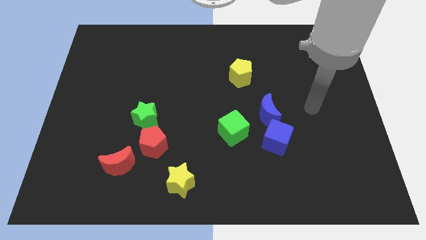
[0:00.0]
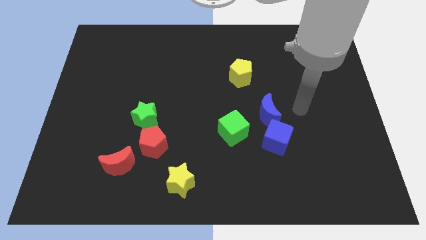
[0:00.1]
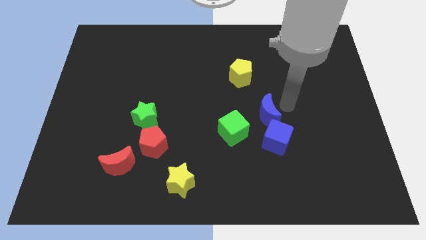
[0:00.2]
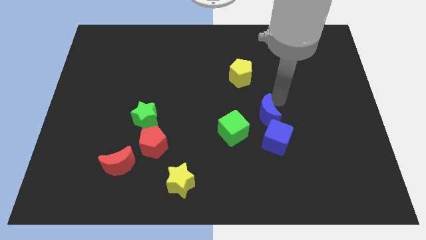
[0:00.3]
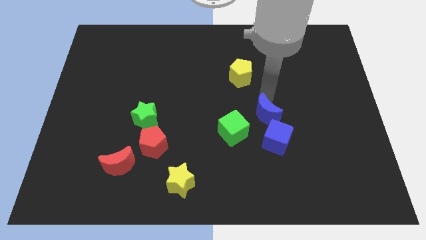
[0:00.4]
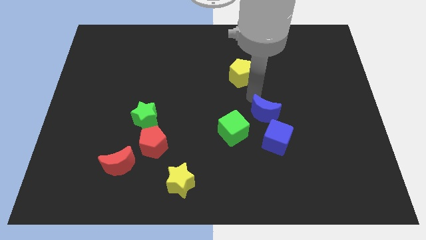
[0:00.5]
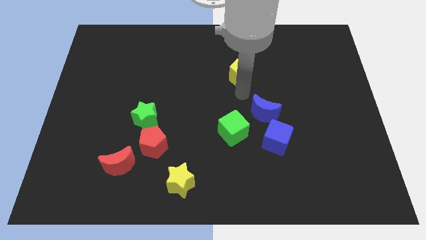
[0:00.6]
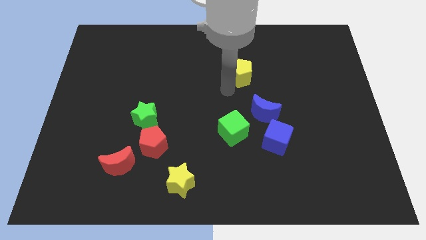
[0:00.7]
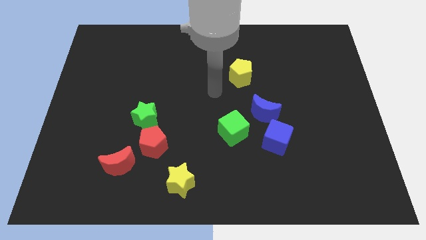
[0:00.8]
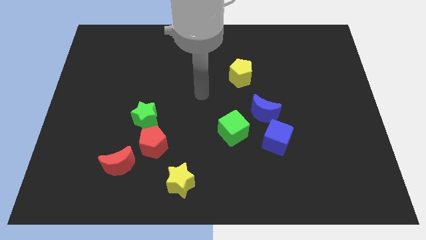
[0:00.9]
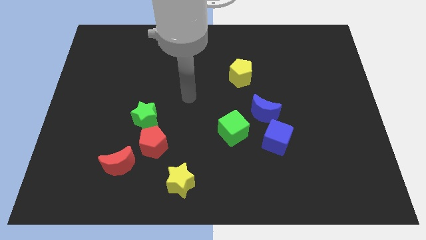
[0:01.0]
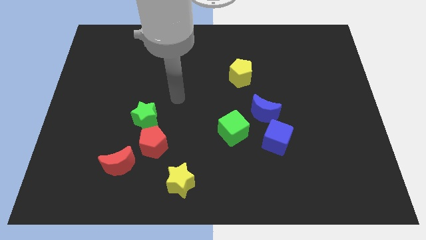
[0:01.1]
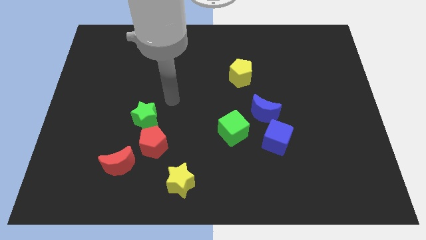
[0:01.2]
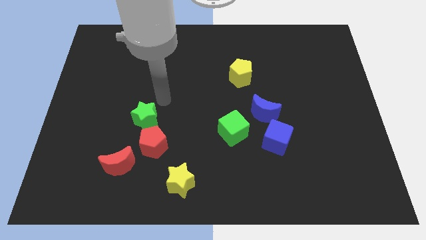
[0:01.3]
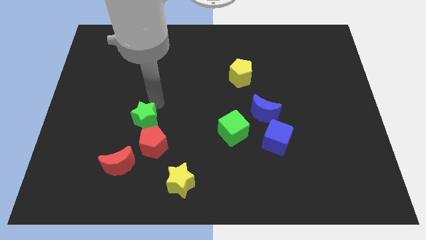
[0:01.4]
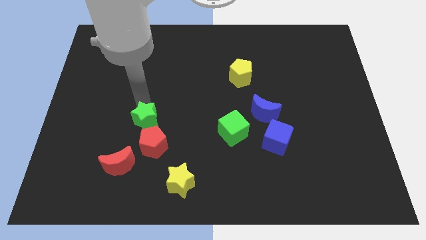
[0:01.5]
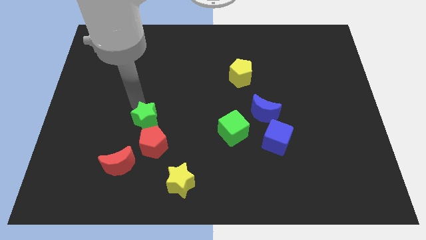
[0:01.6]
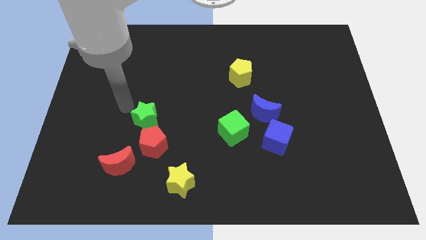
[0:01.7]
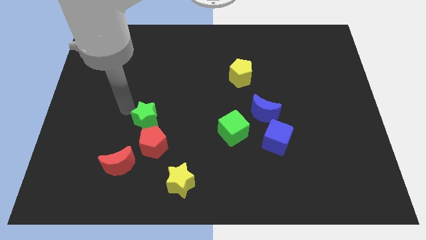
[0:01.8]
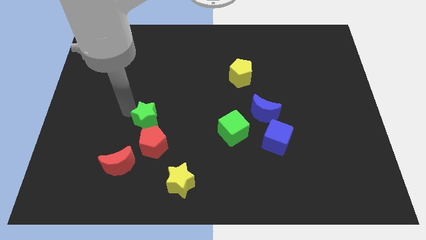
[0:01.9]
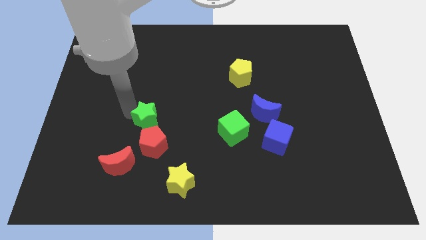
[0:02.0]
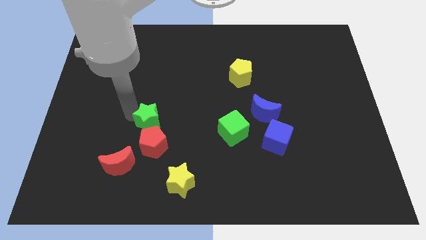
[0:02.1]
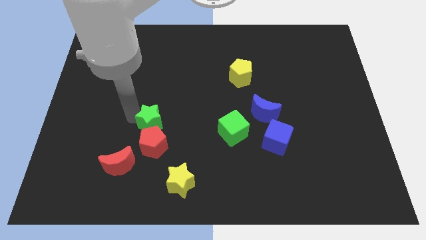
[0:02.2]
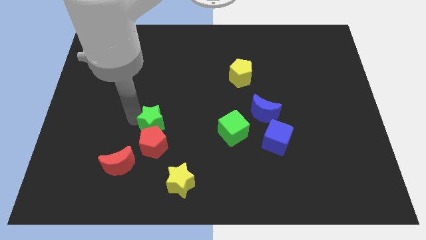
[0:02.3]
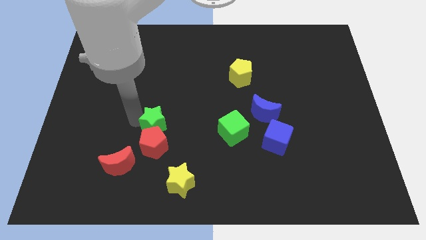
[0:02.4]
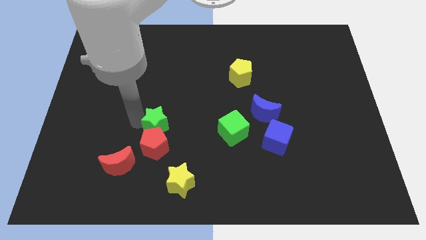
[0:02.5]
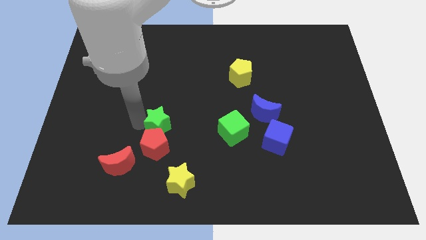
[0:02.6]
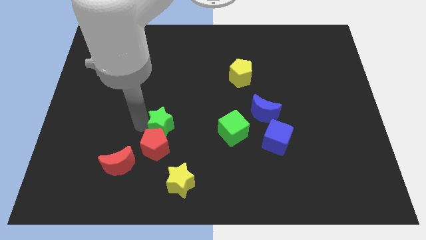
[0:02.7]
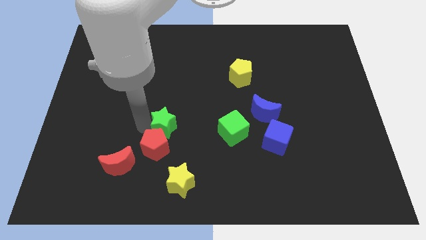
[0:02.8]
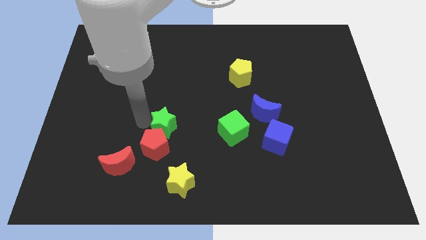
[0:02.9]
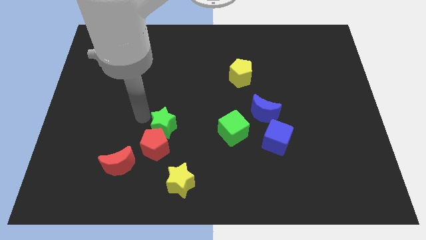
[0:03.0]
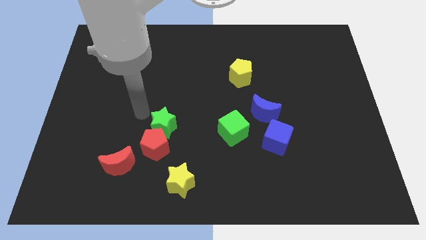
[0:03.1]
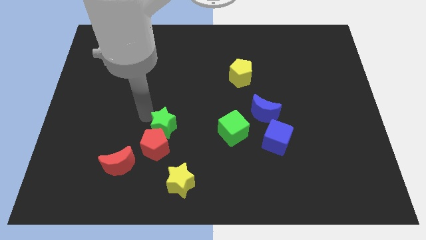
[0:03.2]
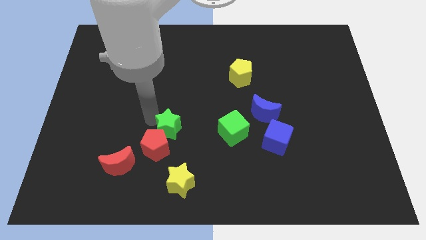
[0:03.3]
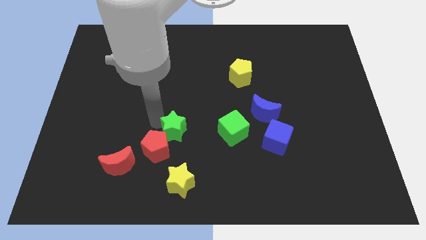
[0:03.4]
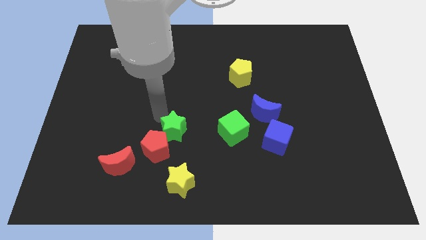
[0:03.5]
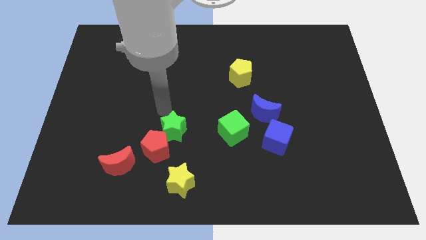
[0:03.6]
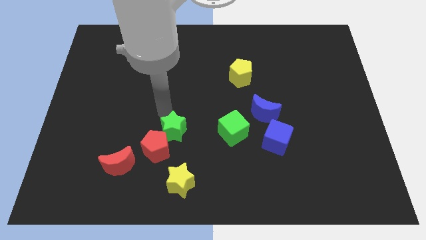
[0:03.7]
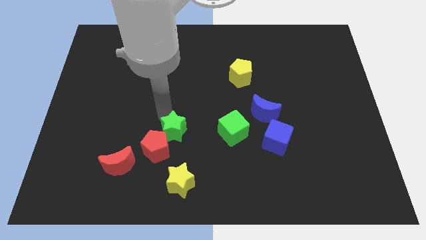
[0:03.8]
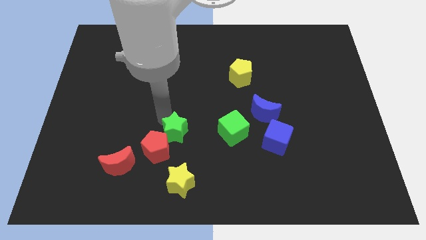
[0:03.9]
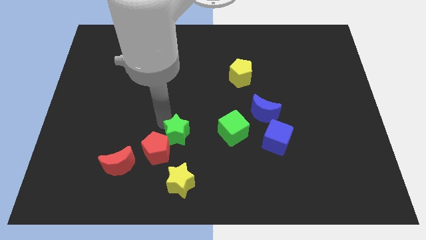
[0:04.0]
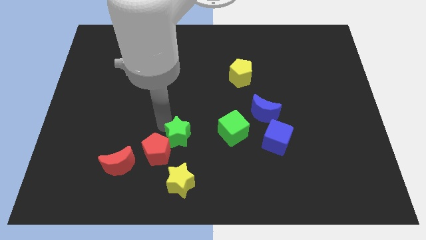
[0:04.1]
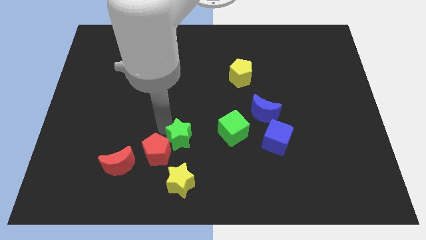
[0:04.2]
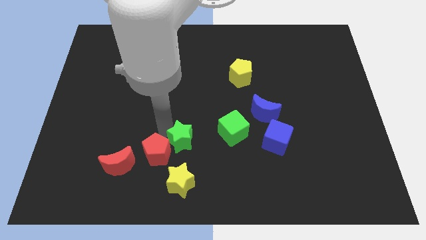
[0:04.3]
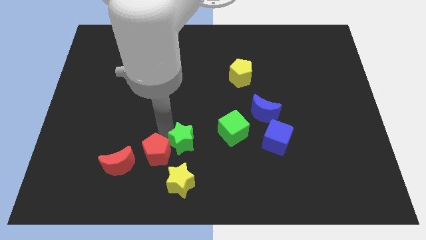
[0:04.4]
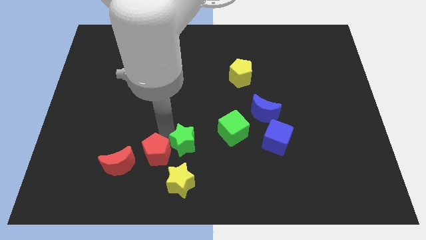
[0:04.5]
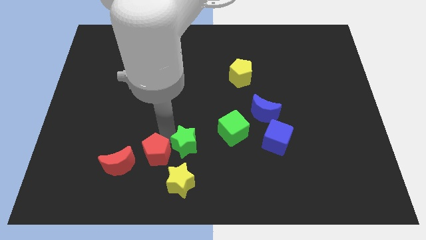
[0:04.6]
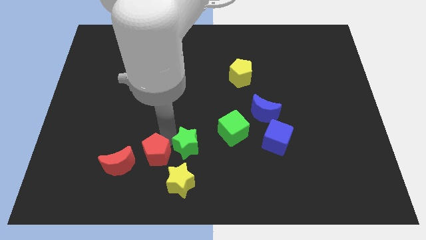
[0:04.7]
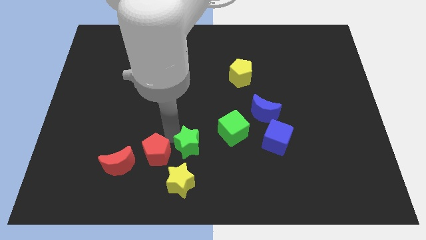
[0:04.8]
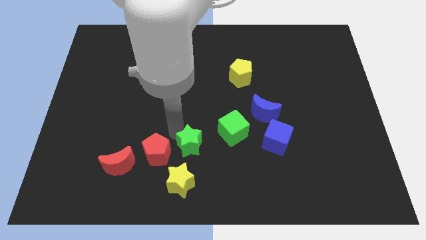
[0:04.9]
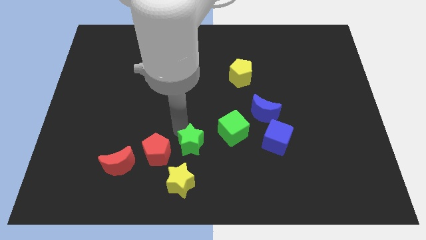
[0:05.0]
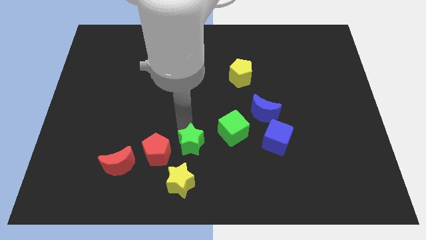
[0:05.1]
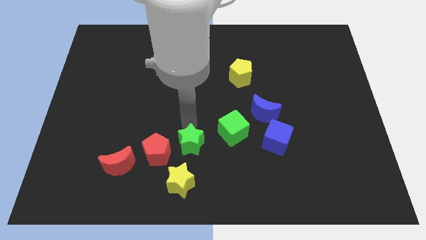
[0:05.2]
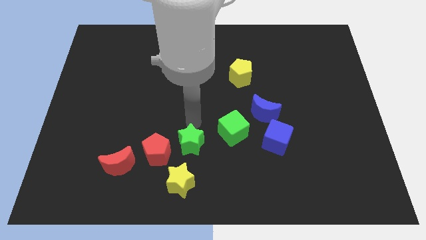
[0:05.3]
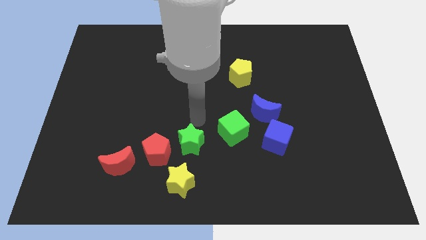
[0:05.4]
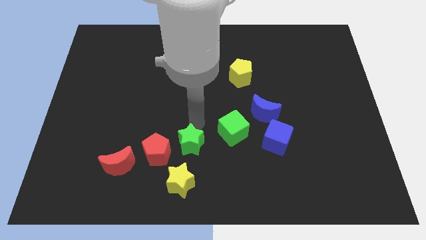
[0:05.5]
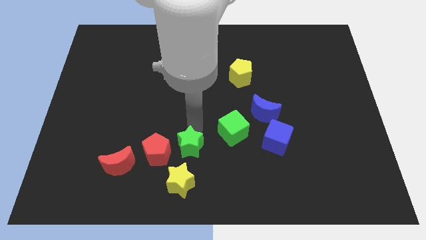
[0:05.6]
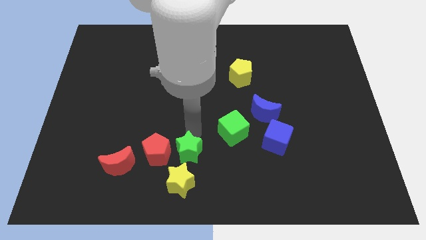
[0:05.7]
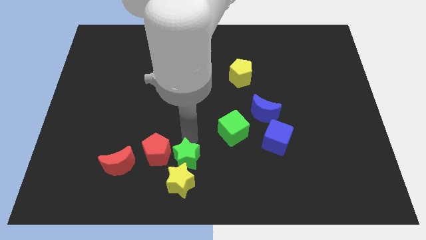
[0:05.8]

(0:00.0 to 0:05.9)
move the green star to the bottom

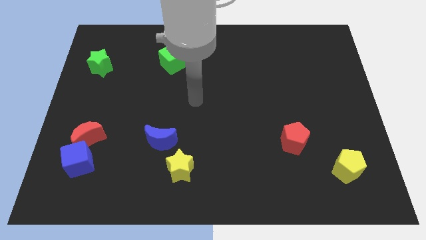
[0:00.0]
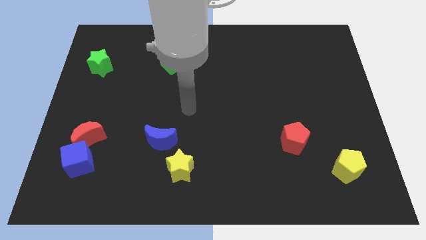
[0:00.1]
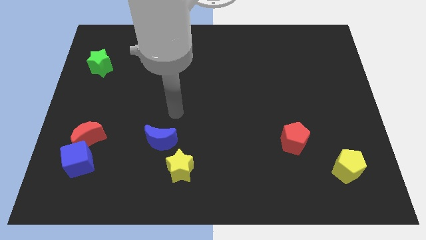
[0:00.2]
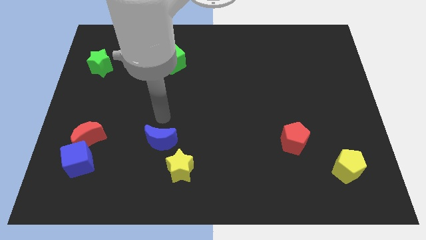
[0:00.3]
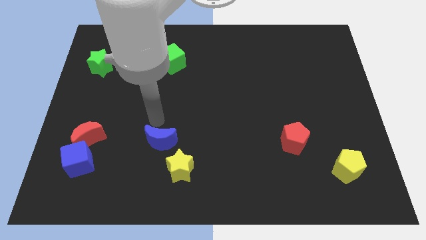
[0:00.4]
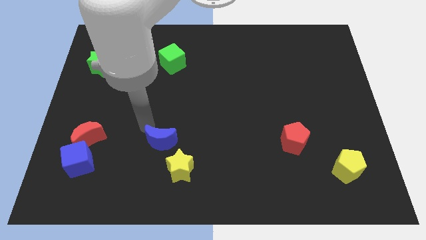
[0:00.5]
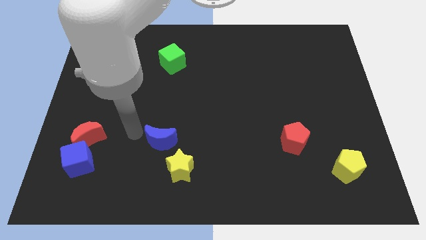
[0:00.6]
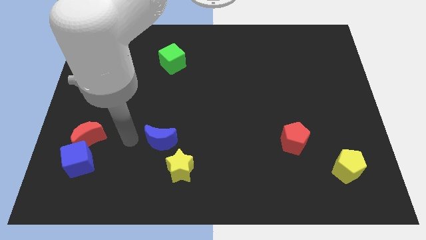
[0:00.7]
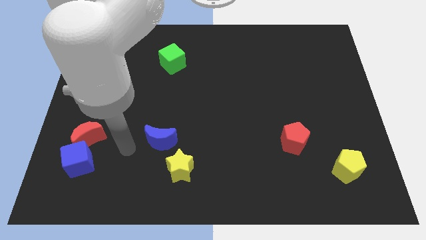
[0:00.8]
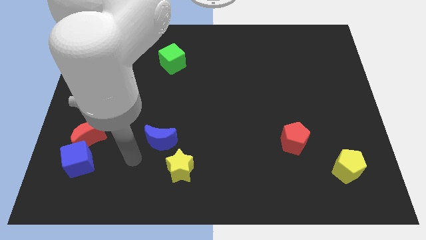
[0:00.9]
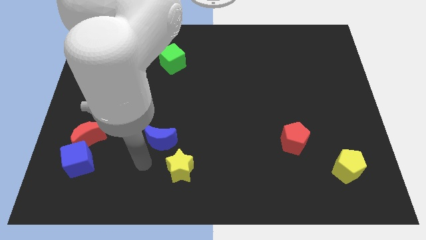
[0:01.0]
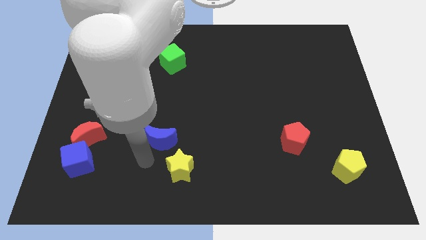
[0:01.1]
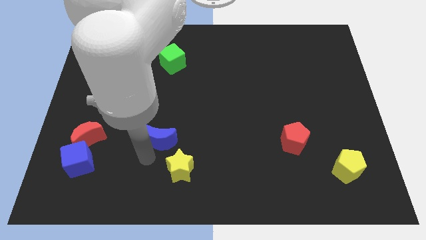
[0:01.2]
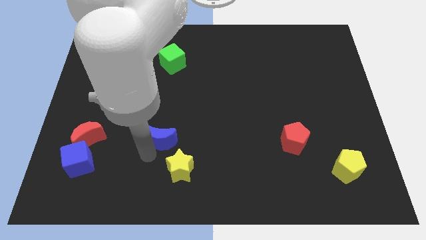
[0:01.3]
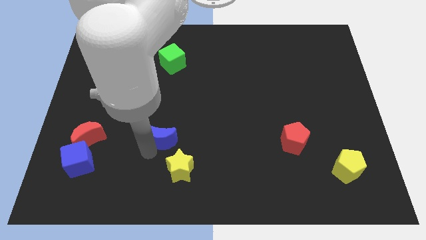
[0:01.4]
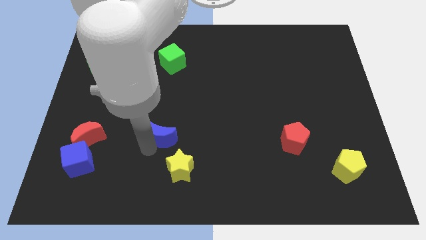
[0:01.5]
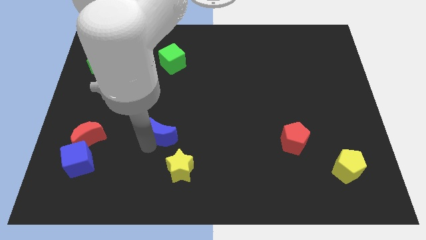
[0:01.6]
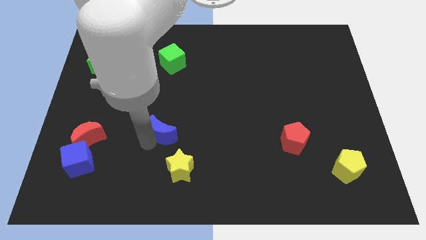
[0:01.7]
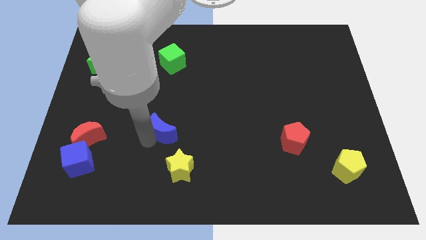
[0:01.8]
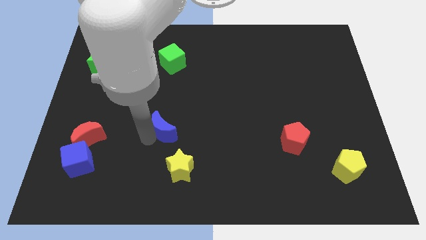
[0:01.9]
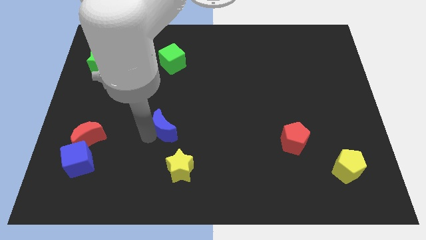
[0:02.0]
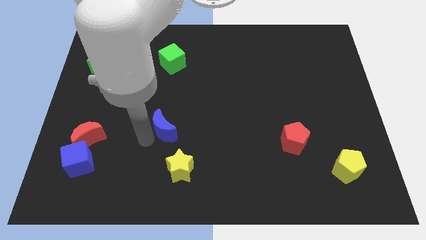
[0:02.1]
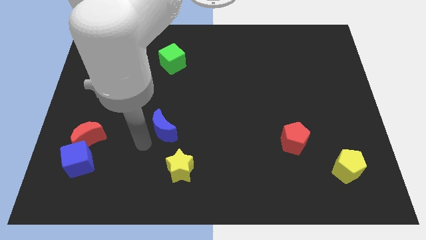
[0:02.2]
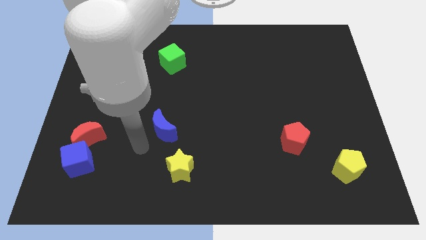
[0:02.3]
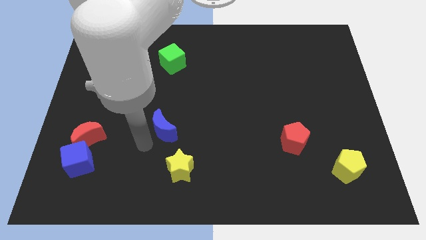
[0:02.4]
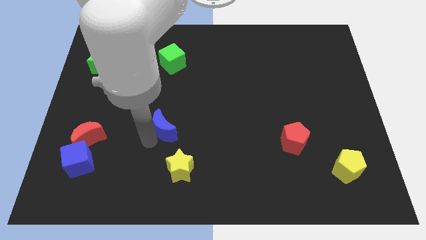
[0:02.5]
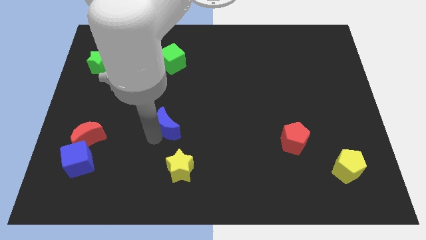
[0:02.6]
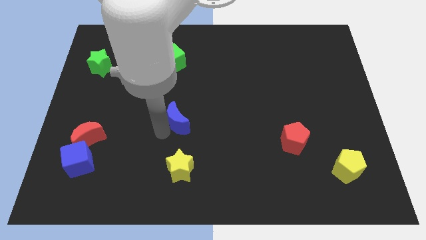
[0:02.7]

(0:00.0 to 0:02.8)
push the blue moon to the center of the board
